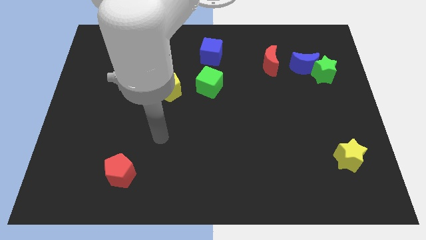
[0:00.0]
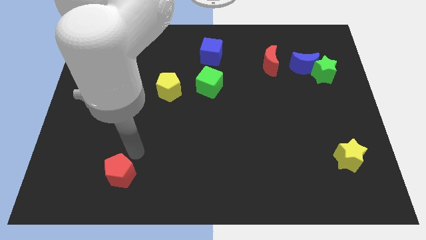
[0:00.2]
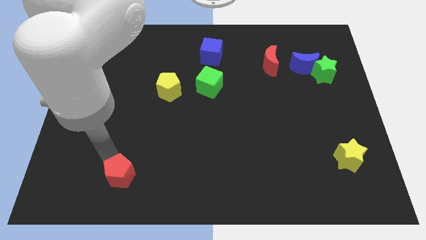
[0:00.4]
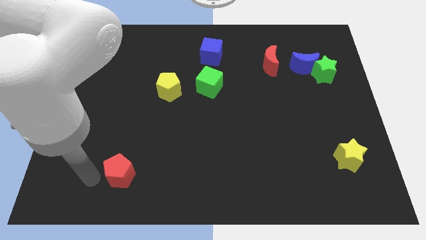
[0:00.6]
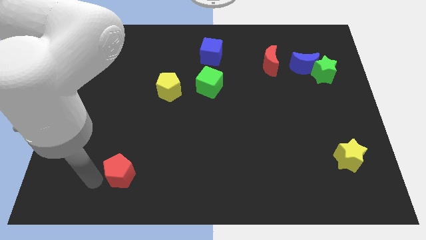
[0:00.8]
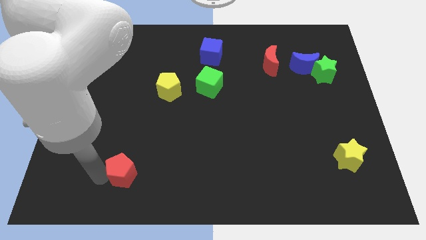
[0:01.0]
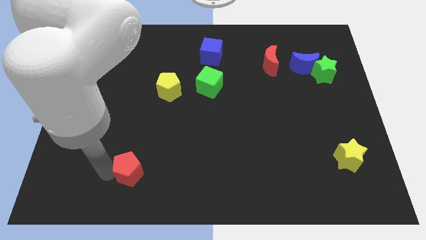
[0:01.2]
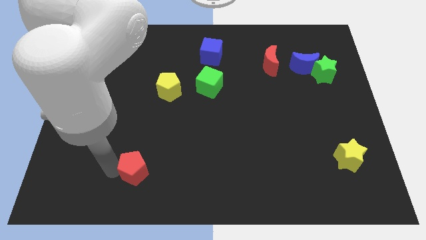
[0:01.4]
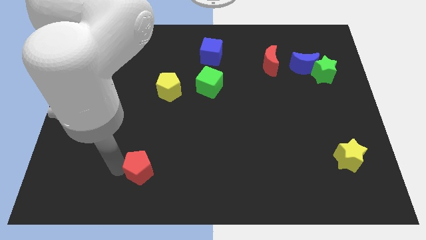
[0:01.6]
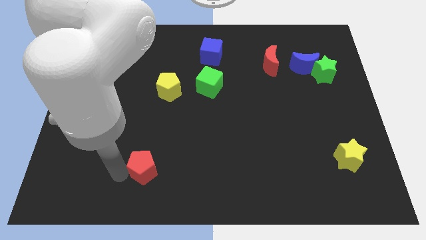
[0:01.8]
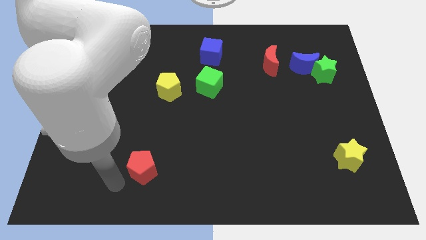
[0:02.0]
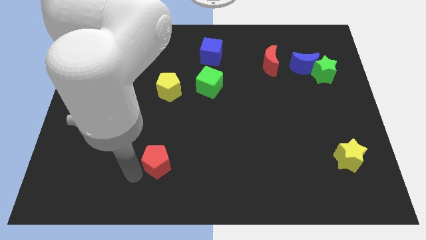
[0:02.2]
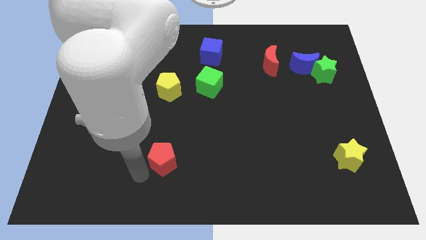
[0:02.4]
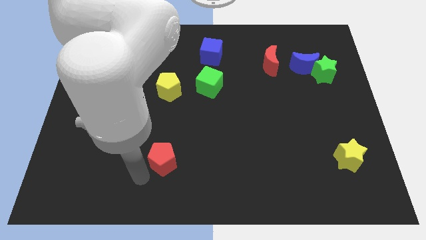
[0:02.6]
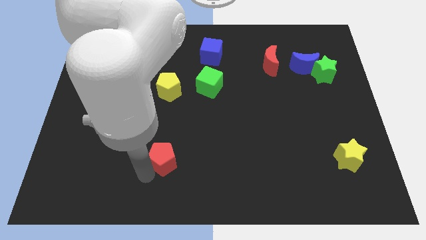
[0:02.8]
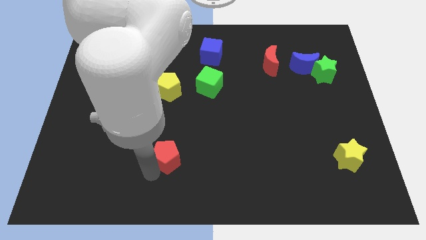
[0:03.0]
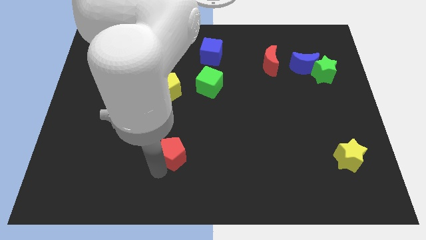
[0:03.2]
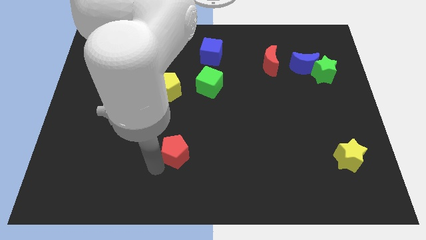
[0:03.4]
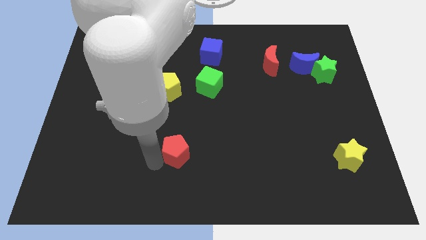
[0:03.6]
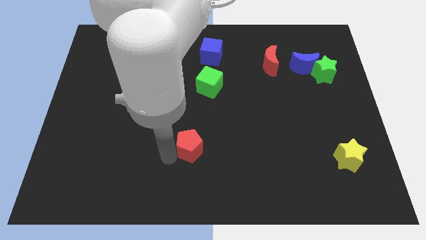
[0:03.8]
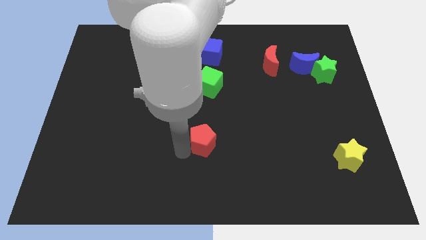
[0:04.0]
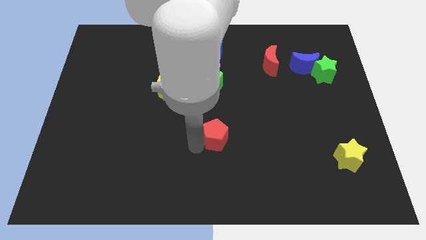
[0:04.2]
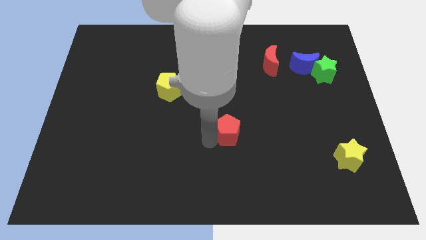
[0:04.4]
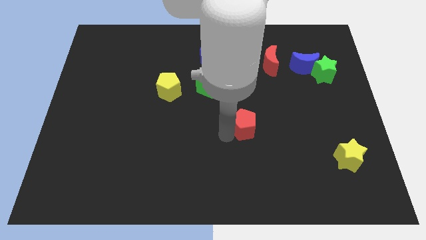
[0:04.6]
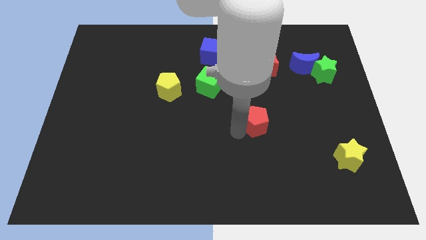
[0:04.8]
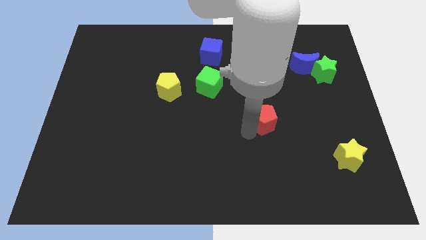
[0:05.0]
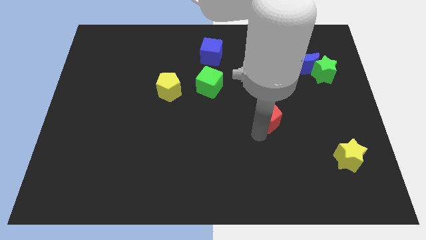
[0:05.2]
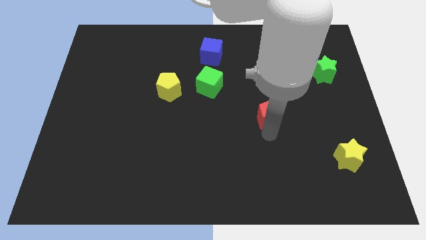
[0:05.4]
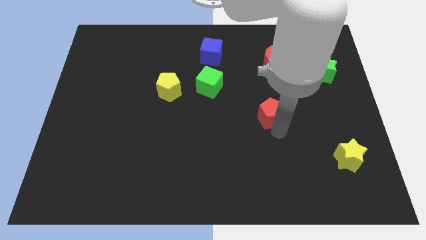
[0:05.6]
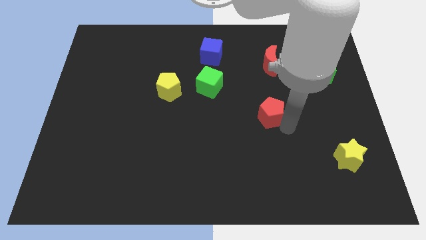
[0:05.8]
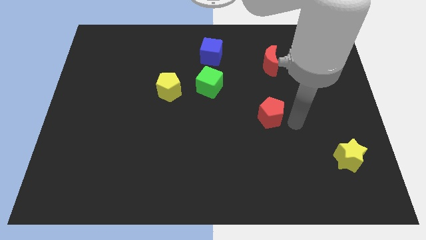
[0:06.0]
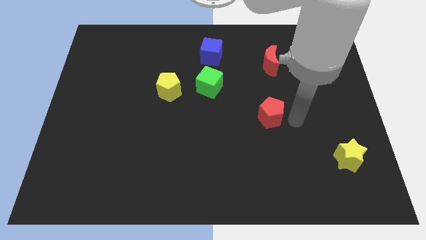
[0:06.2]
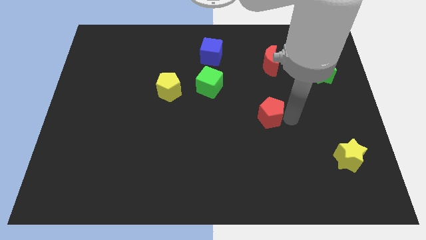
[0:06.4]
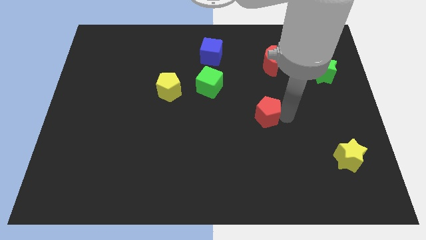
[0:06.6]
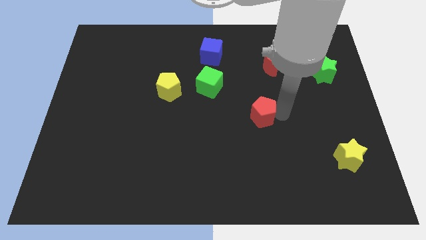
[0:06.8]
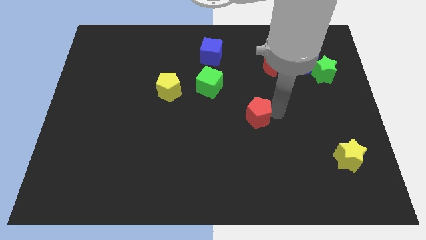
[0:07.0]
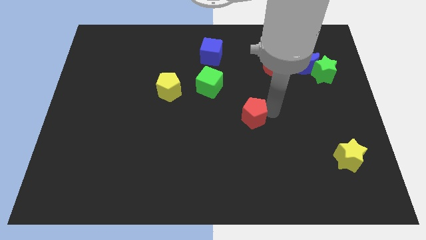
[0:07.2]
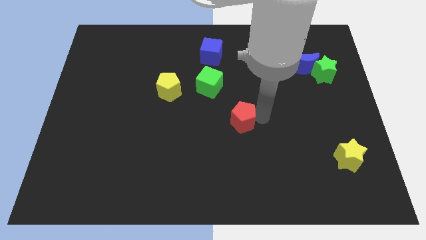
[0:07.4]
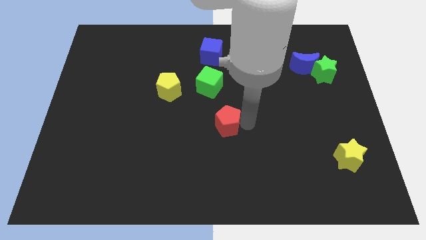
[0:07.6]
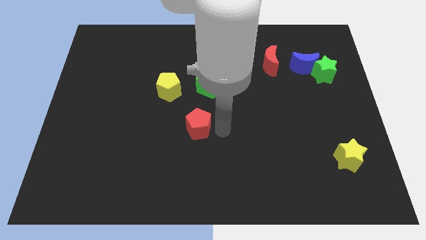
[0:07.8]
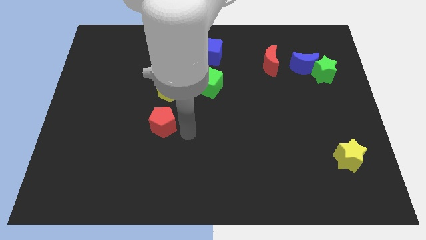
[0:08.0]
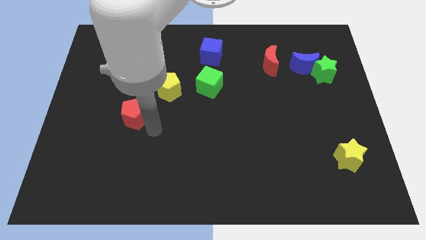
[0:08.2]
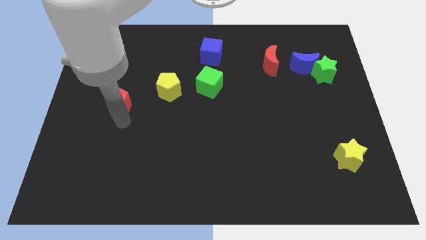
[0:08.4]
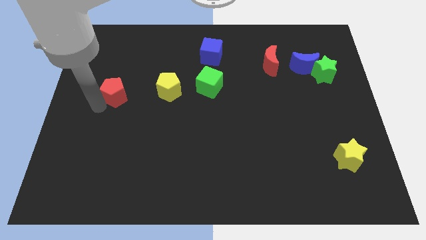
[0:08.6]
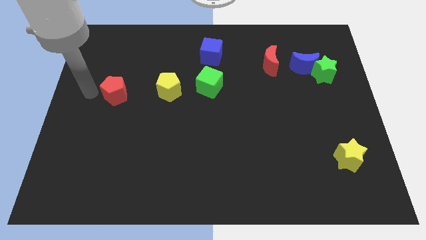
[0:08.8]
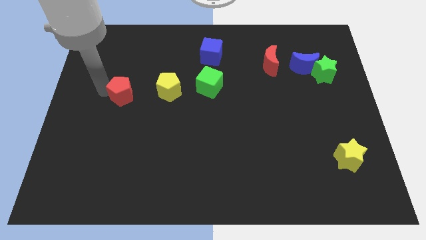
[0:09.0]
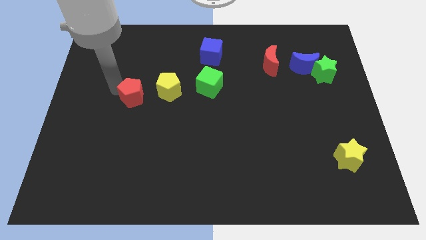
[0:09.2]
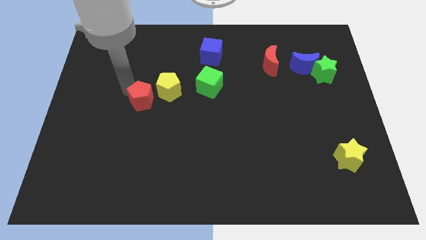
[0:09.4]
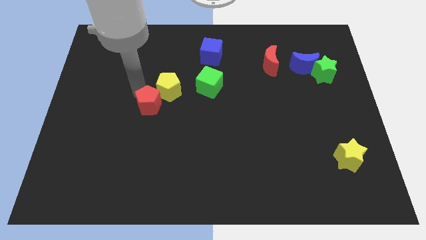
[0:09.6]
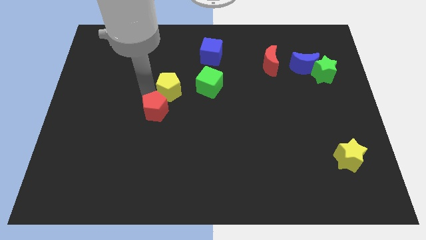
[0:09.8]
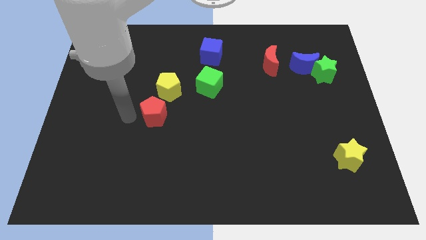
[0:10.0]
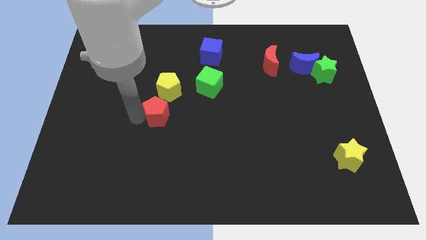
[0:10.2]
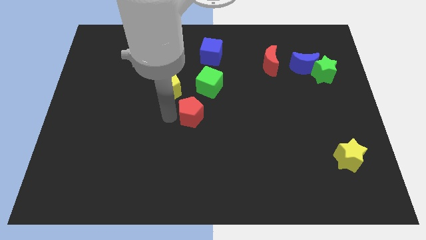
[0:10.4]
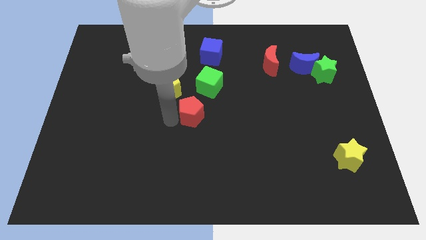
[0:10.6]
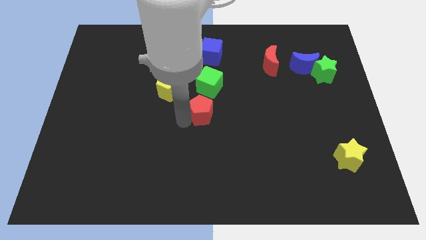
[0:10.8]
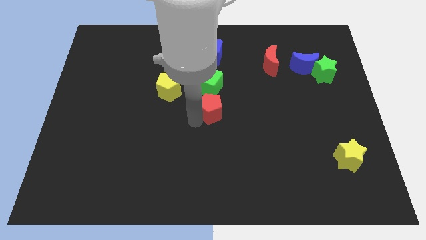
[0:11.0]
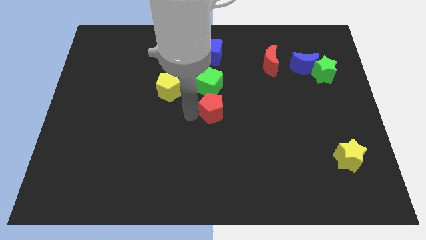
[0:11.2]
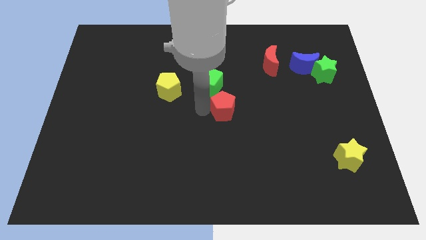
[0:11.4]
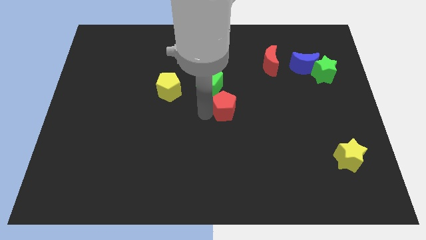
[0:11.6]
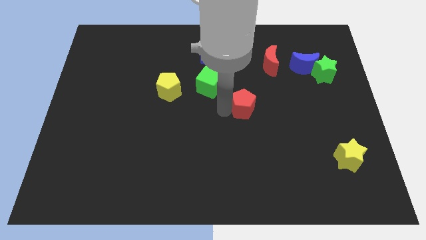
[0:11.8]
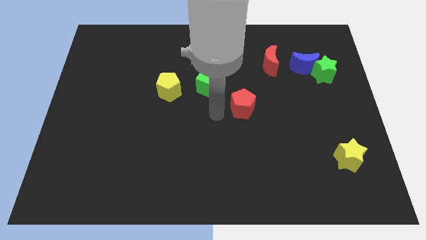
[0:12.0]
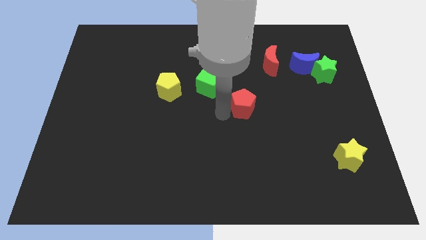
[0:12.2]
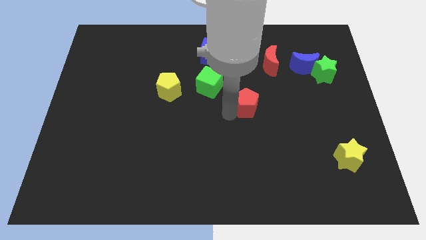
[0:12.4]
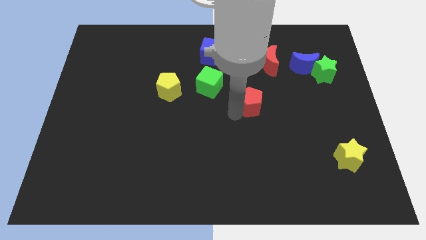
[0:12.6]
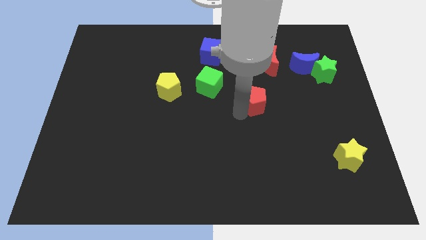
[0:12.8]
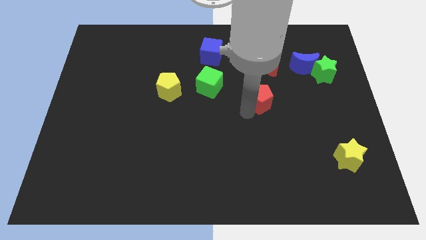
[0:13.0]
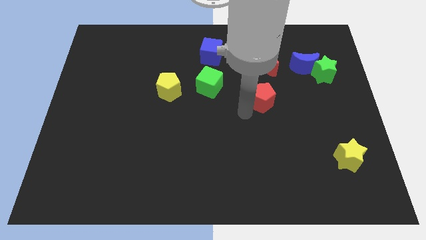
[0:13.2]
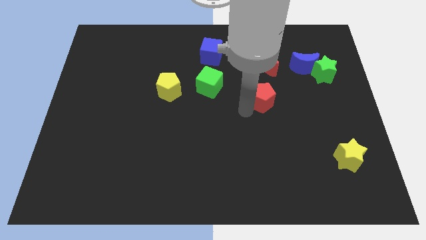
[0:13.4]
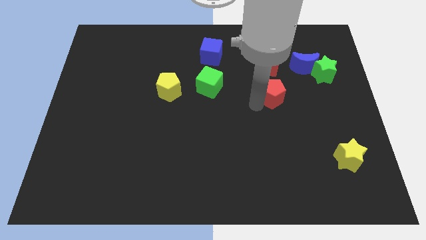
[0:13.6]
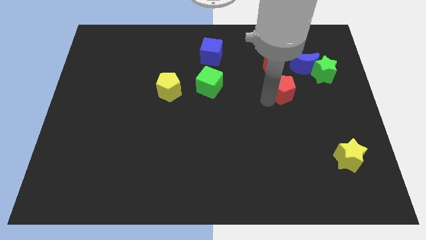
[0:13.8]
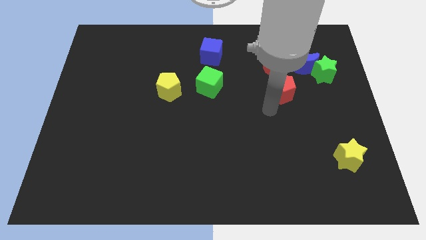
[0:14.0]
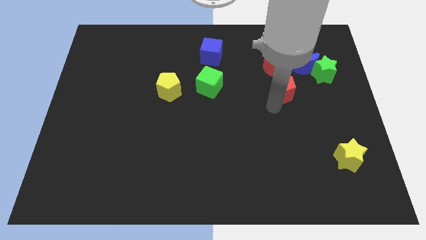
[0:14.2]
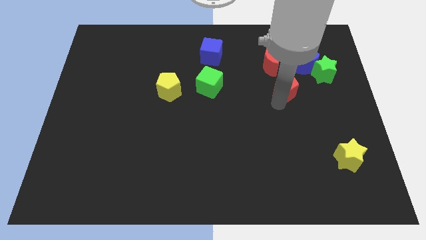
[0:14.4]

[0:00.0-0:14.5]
slide the red pentagon diagonally down and to the right of the red moon
